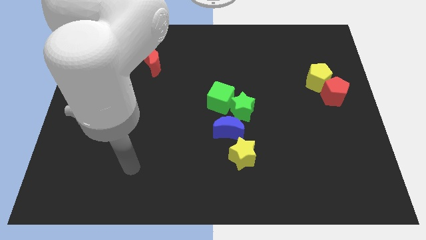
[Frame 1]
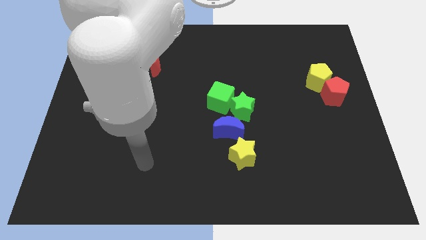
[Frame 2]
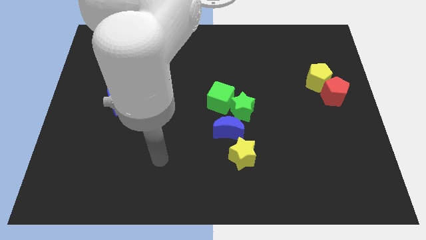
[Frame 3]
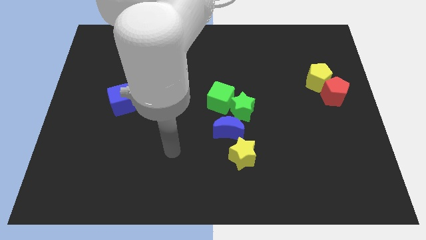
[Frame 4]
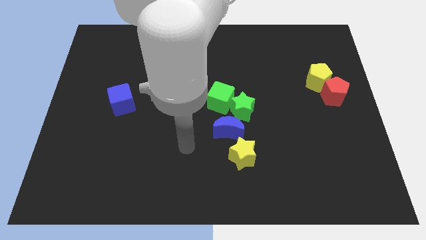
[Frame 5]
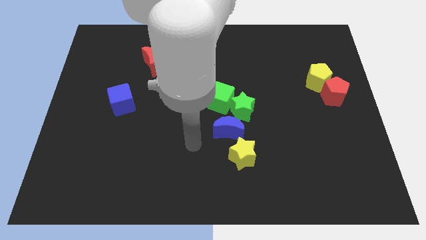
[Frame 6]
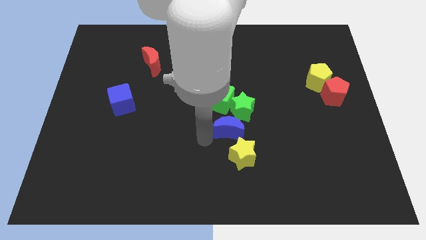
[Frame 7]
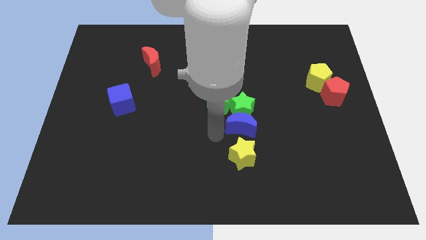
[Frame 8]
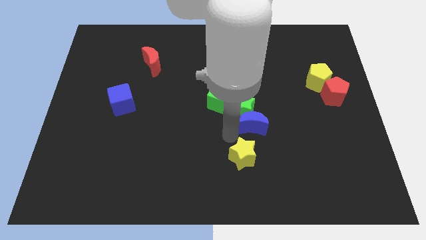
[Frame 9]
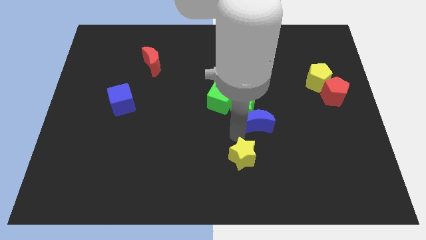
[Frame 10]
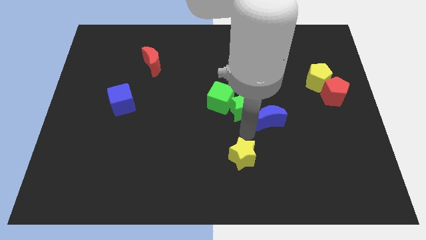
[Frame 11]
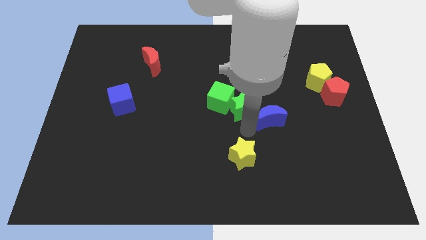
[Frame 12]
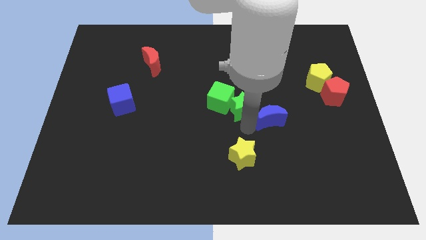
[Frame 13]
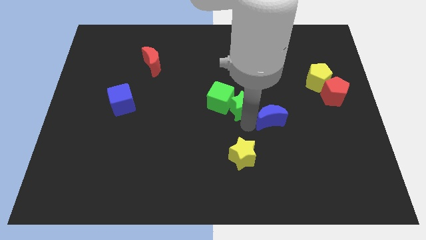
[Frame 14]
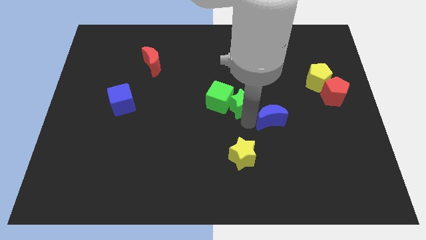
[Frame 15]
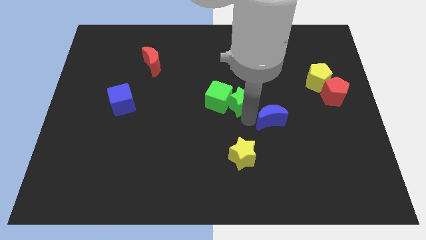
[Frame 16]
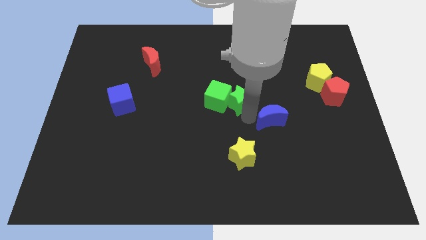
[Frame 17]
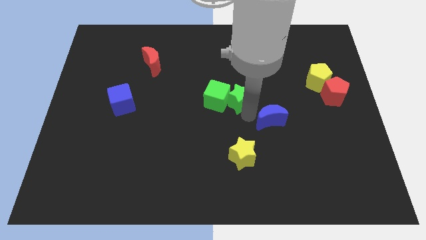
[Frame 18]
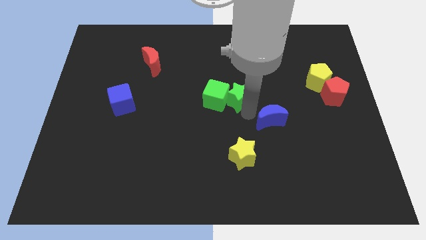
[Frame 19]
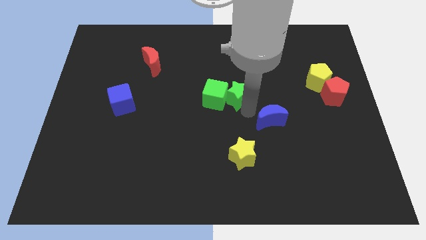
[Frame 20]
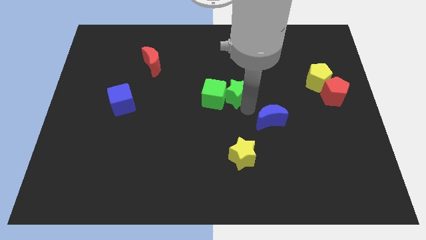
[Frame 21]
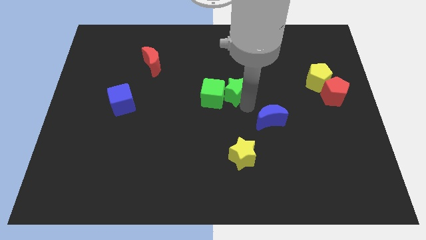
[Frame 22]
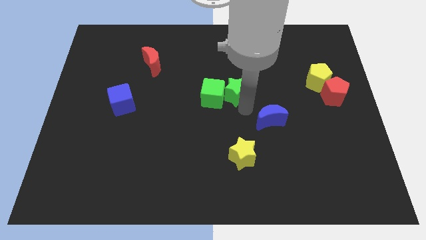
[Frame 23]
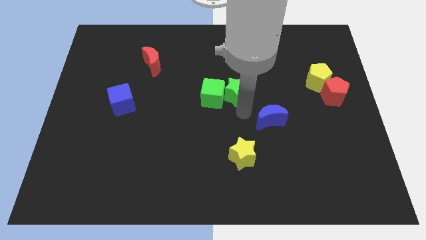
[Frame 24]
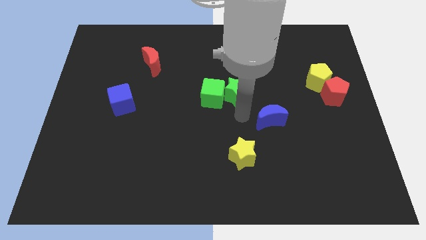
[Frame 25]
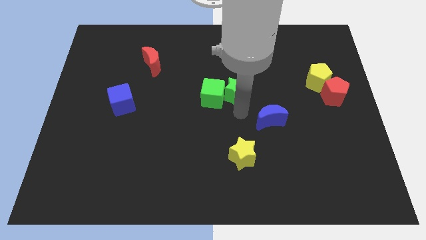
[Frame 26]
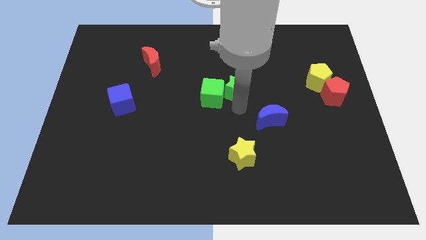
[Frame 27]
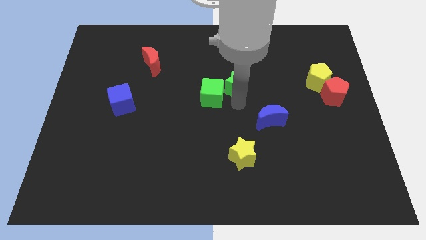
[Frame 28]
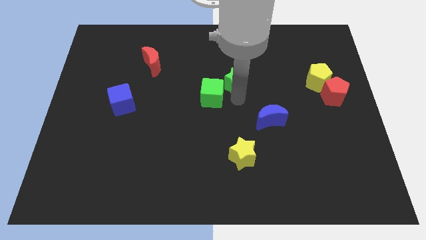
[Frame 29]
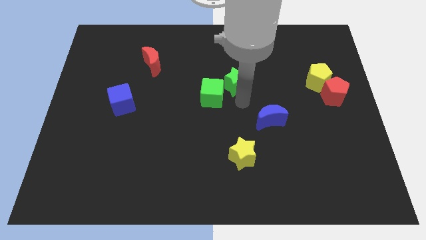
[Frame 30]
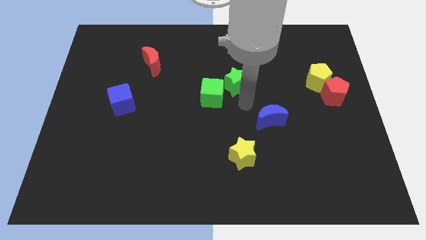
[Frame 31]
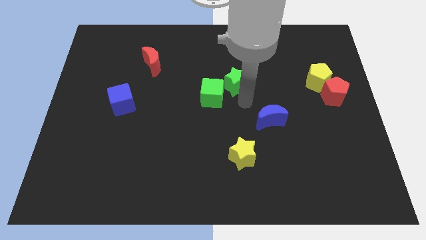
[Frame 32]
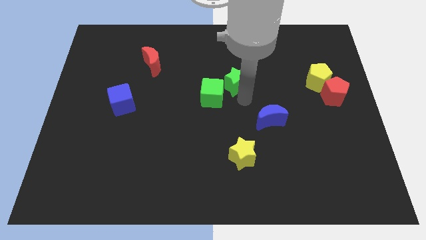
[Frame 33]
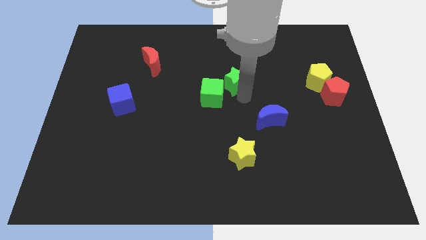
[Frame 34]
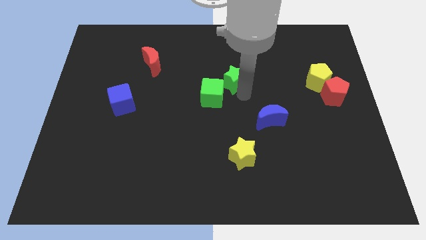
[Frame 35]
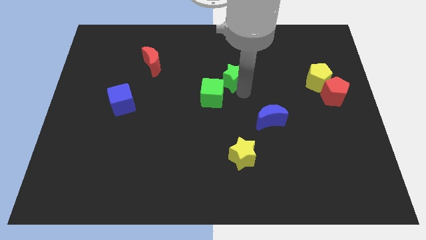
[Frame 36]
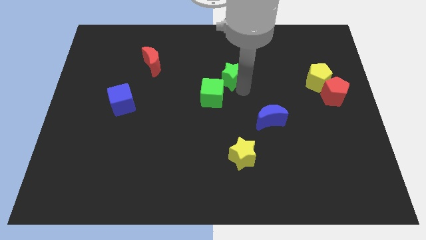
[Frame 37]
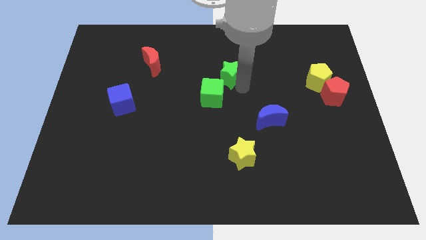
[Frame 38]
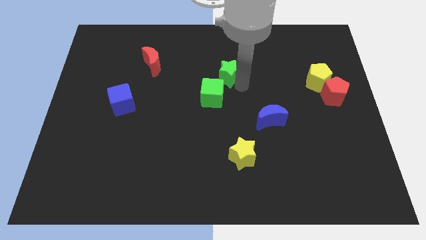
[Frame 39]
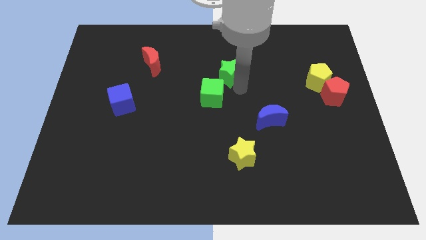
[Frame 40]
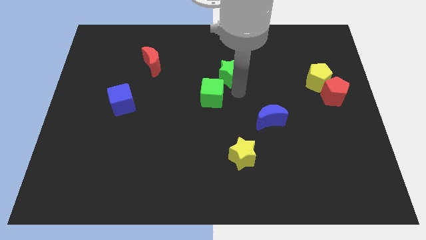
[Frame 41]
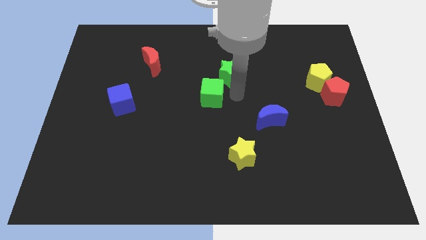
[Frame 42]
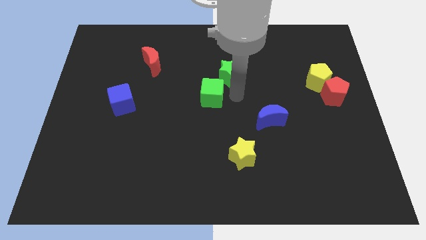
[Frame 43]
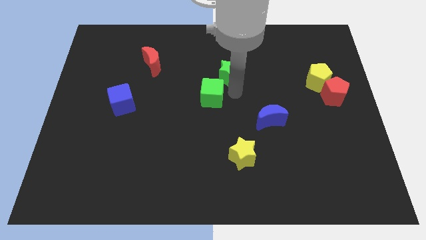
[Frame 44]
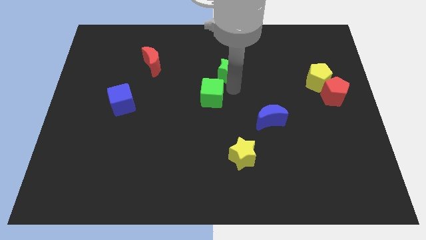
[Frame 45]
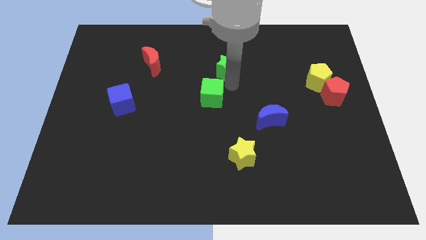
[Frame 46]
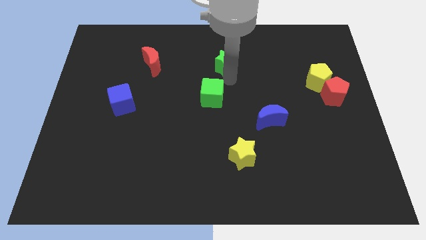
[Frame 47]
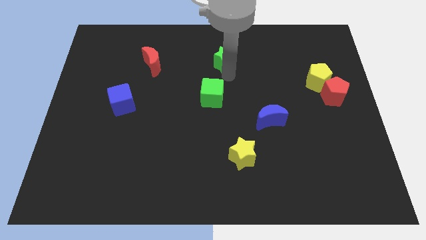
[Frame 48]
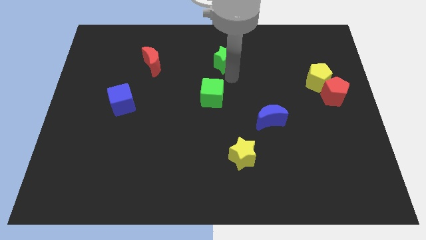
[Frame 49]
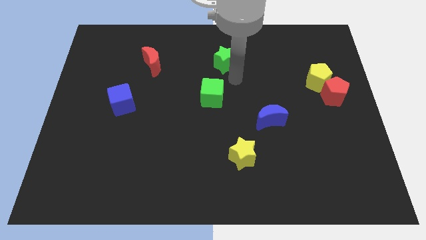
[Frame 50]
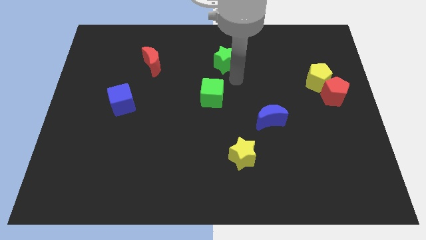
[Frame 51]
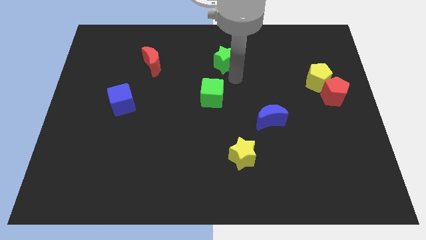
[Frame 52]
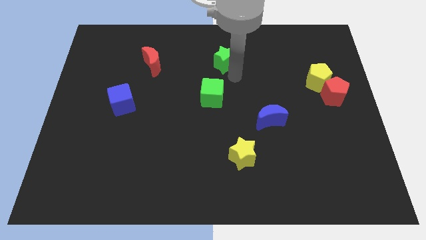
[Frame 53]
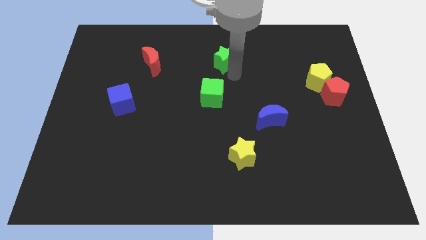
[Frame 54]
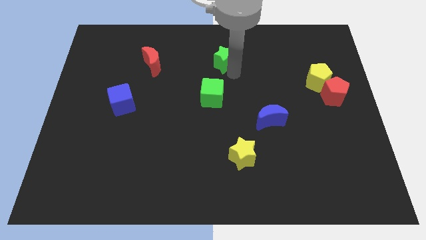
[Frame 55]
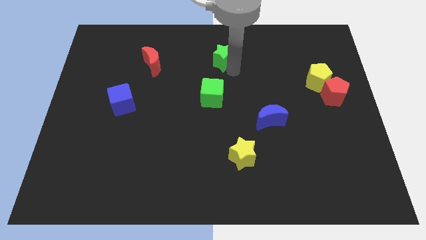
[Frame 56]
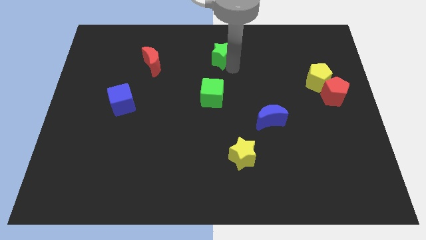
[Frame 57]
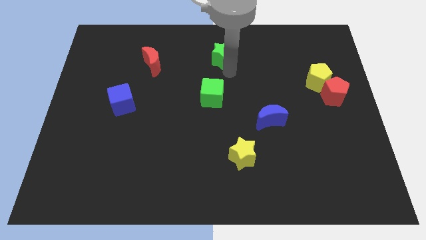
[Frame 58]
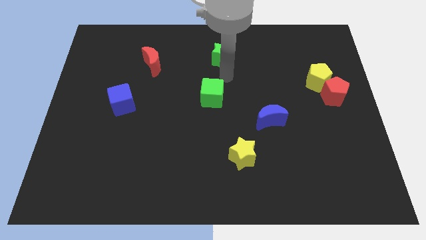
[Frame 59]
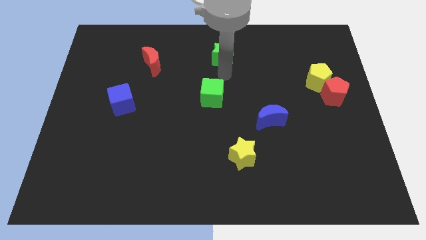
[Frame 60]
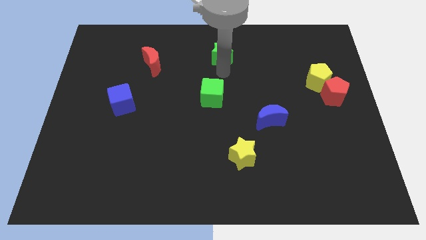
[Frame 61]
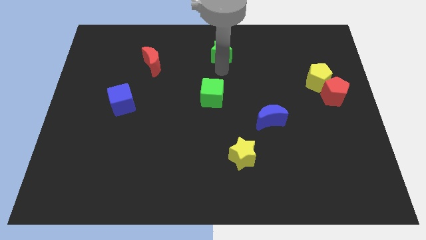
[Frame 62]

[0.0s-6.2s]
slide the green star to the towards your base
